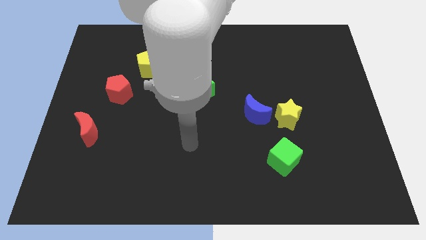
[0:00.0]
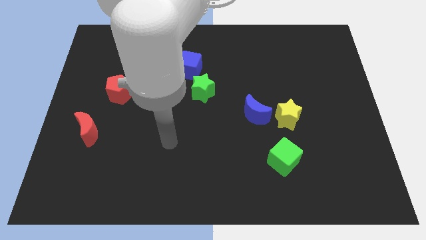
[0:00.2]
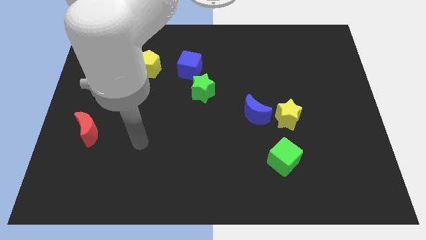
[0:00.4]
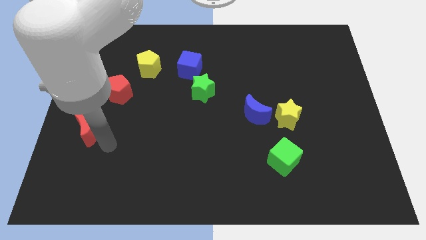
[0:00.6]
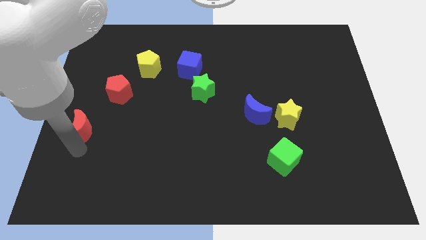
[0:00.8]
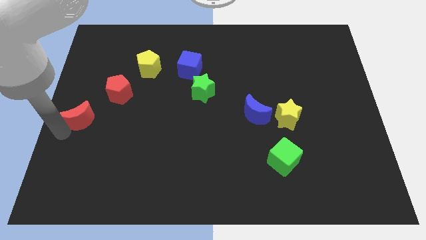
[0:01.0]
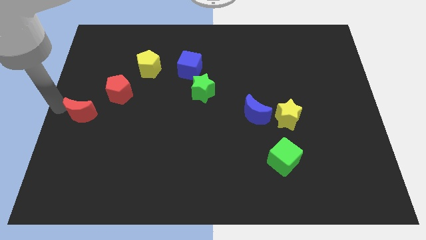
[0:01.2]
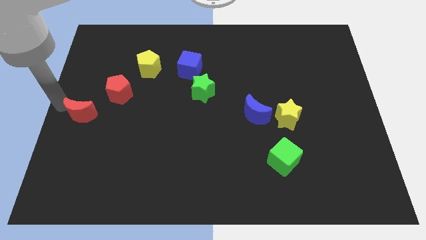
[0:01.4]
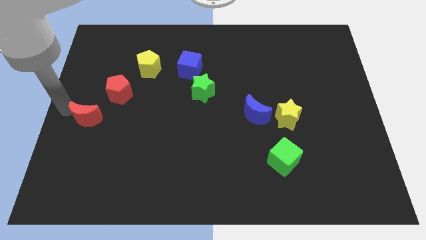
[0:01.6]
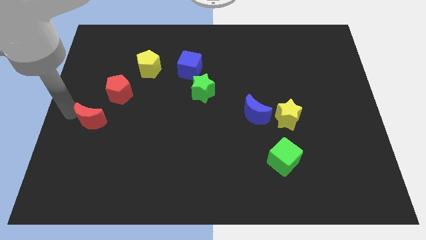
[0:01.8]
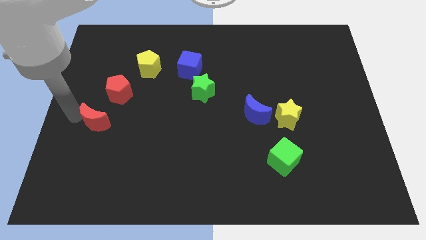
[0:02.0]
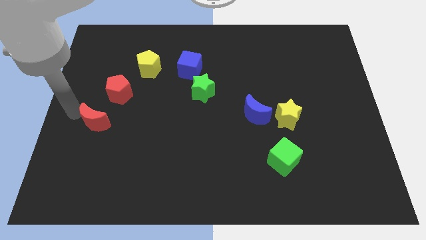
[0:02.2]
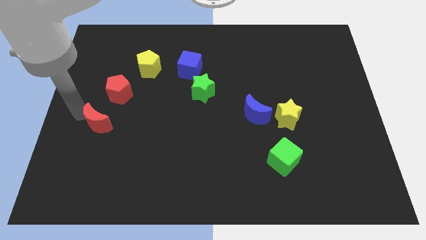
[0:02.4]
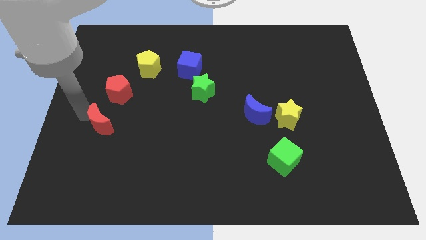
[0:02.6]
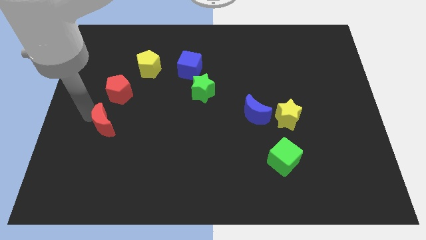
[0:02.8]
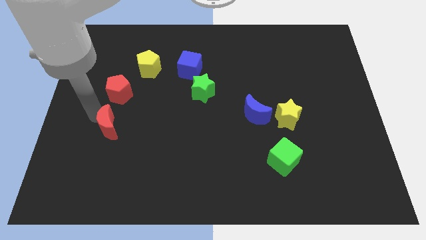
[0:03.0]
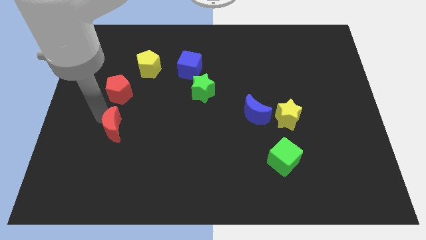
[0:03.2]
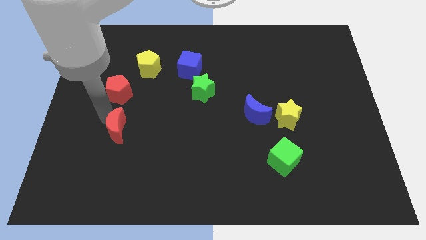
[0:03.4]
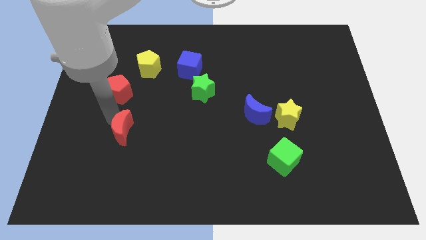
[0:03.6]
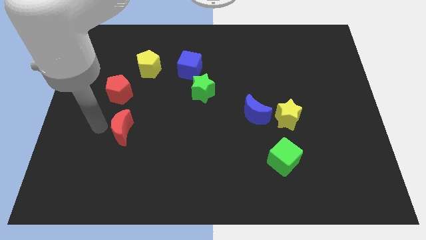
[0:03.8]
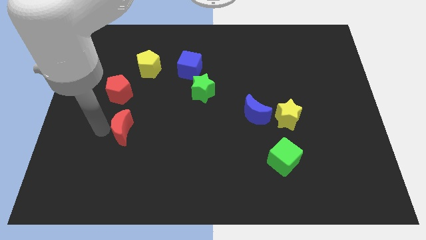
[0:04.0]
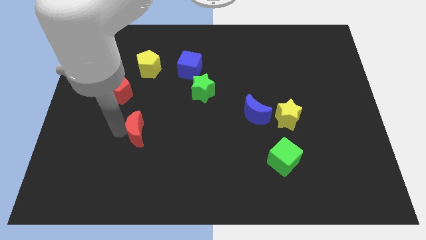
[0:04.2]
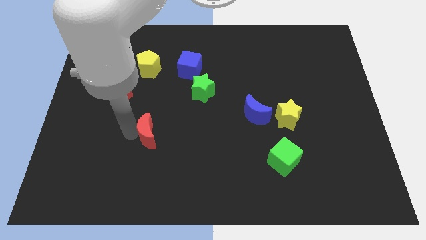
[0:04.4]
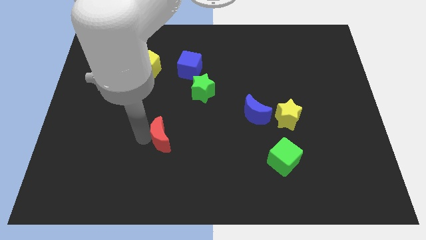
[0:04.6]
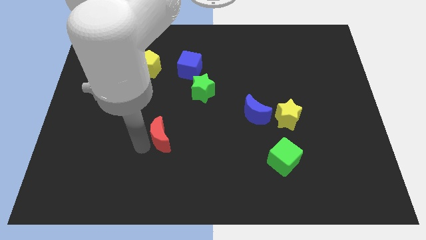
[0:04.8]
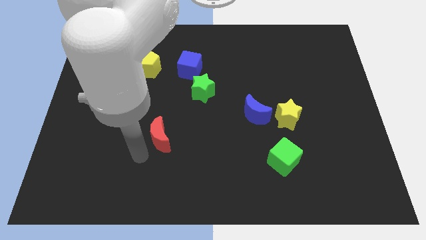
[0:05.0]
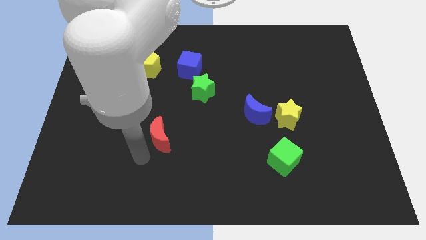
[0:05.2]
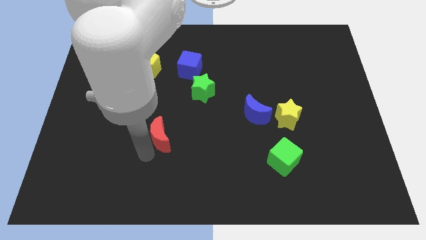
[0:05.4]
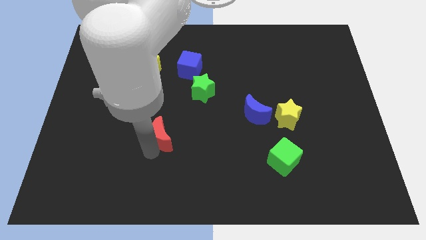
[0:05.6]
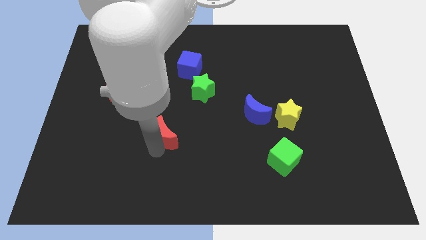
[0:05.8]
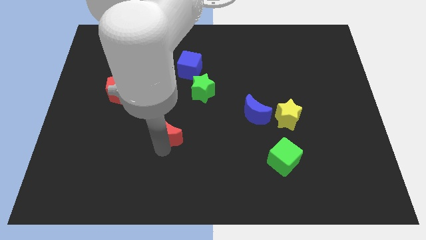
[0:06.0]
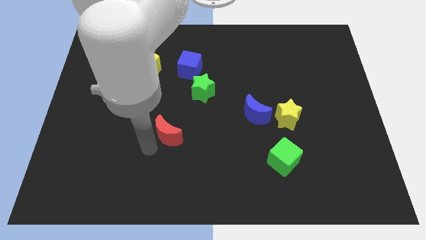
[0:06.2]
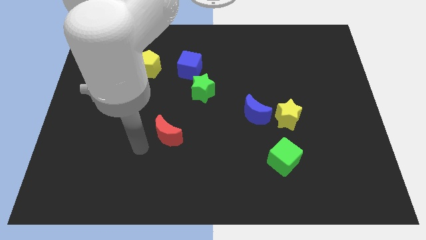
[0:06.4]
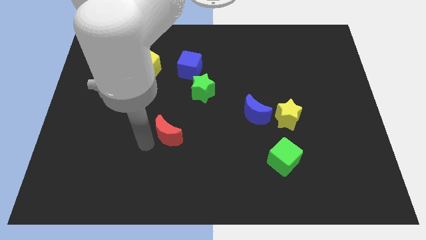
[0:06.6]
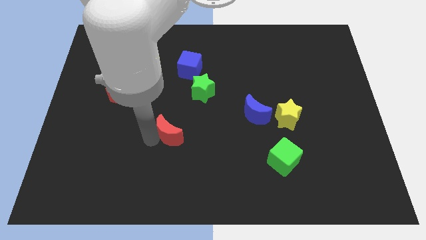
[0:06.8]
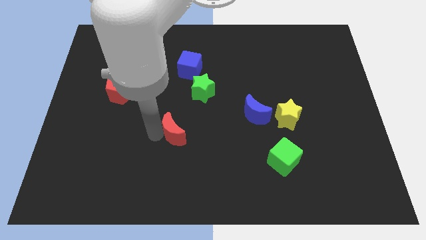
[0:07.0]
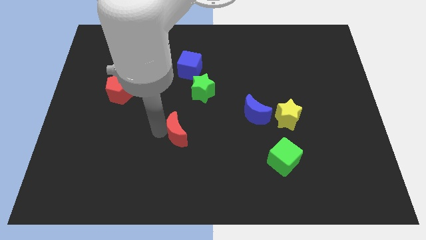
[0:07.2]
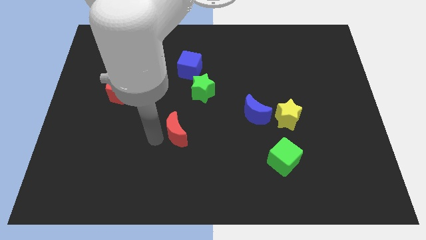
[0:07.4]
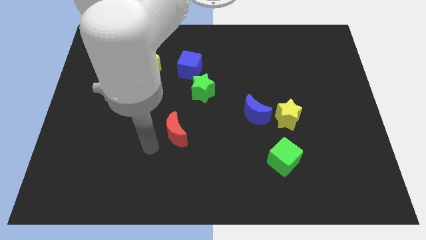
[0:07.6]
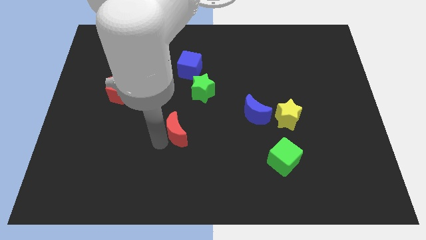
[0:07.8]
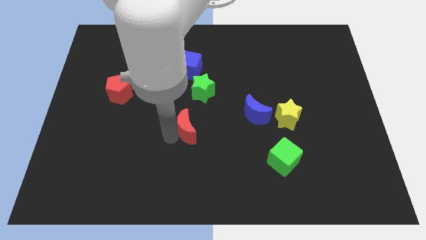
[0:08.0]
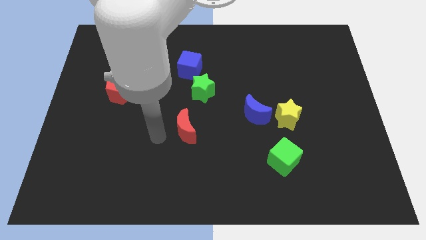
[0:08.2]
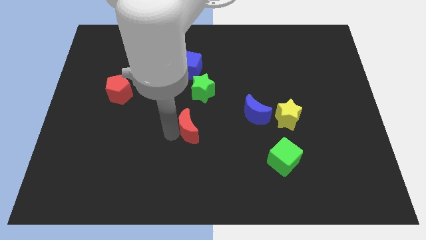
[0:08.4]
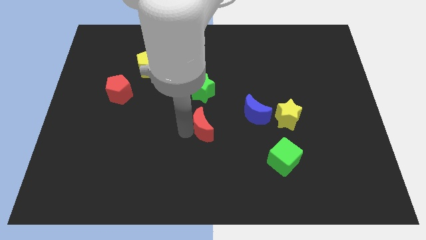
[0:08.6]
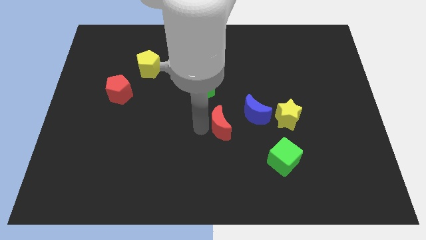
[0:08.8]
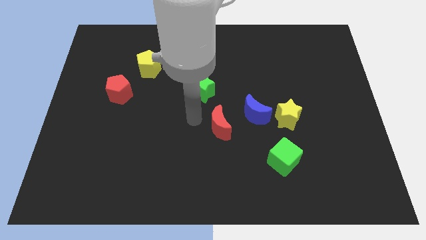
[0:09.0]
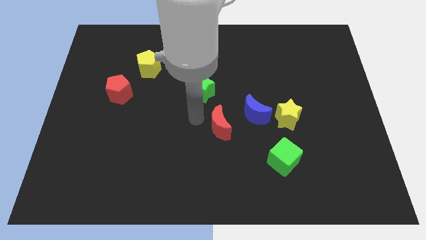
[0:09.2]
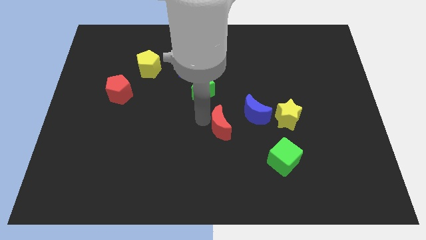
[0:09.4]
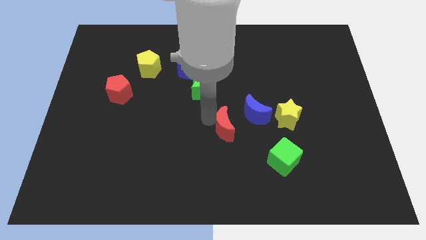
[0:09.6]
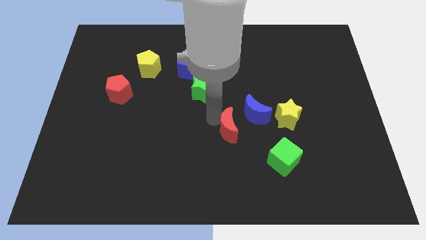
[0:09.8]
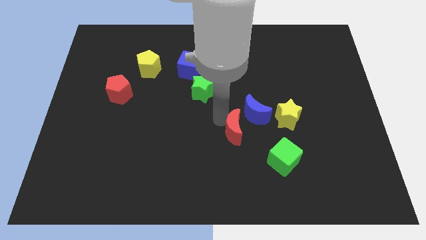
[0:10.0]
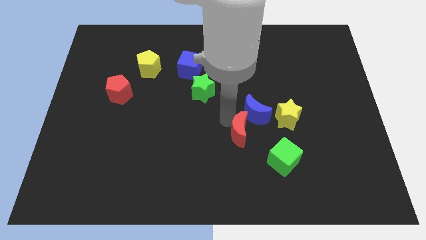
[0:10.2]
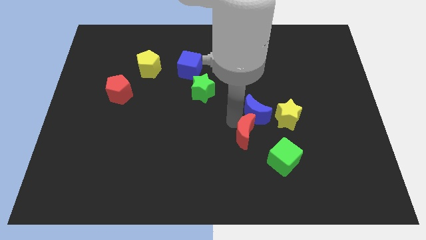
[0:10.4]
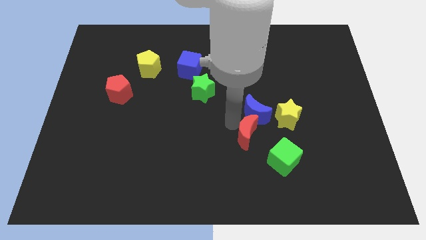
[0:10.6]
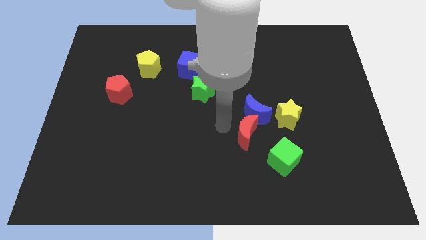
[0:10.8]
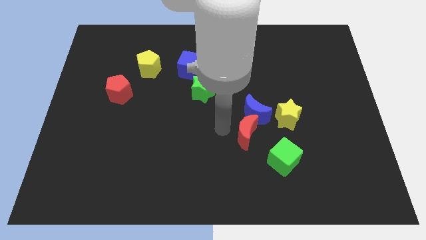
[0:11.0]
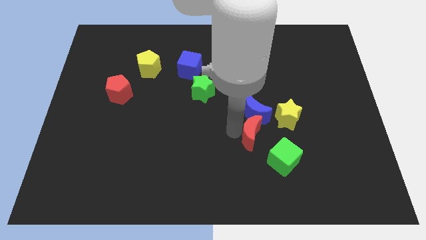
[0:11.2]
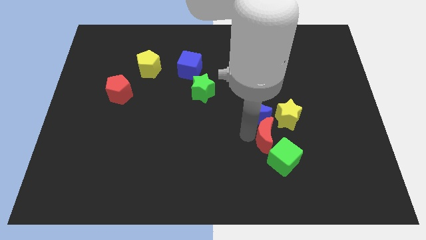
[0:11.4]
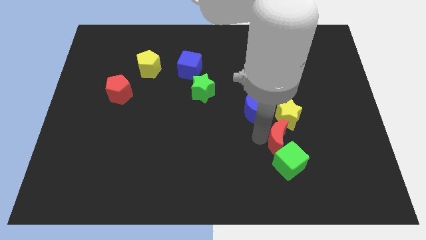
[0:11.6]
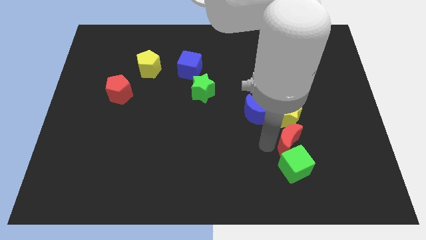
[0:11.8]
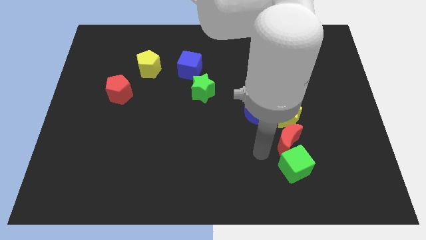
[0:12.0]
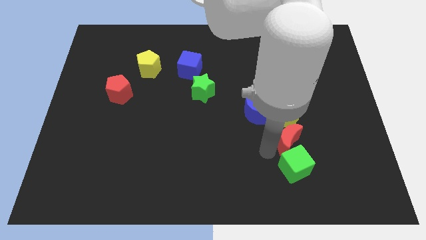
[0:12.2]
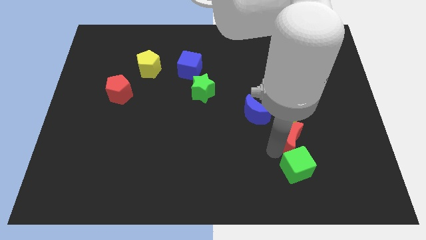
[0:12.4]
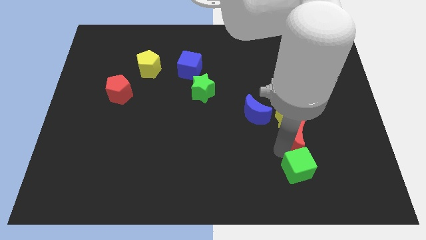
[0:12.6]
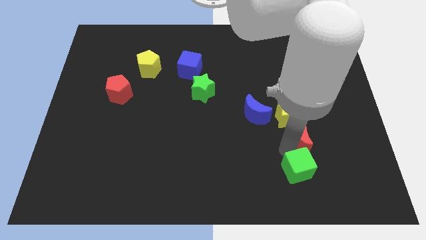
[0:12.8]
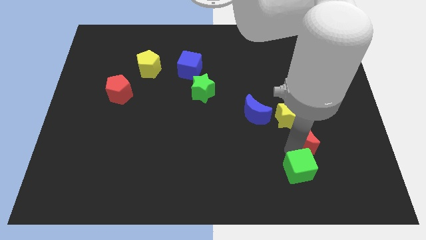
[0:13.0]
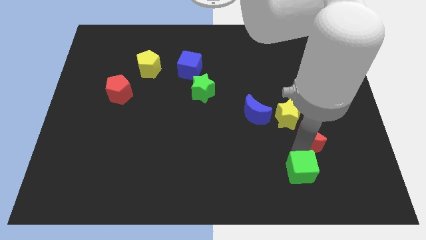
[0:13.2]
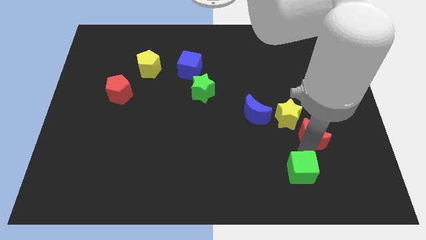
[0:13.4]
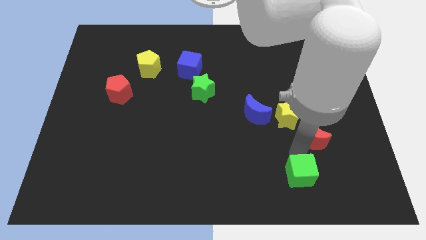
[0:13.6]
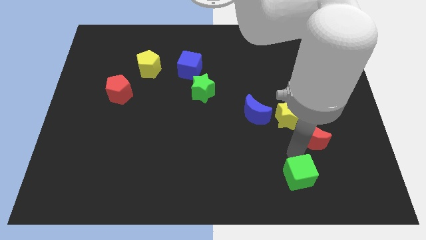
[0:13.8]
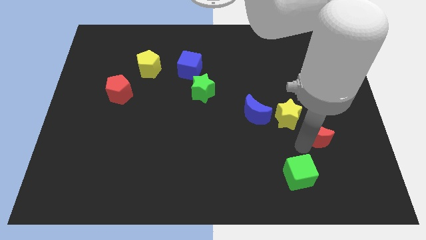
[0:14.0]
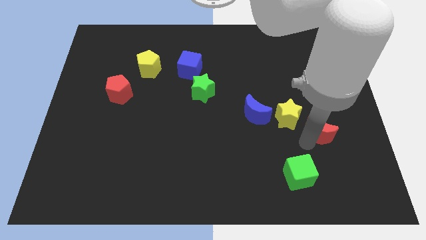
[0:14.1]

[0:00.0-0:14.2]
slide the red moon just right of the yellow star
